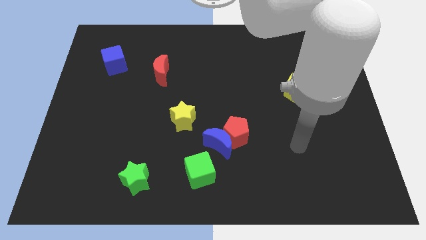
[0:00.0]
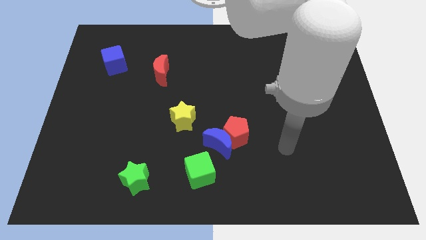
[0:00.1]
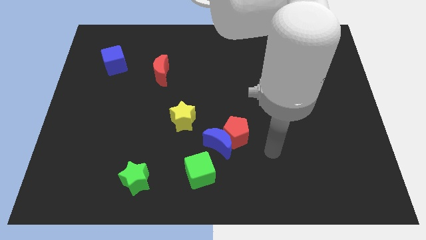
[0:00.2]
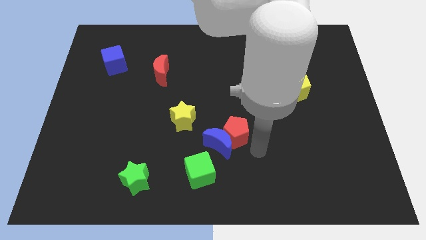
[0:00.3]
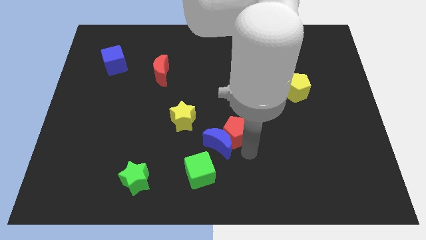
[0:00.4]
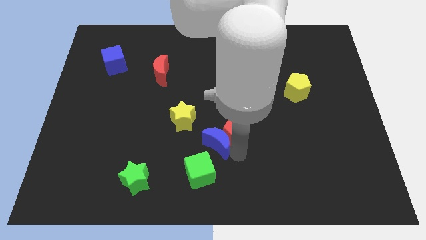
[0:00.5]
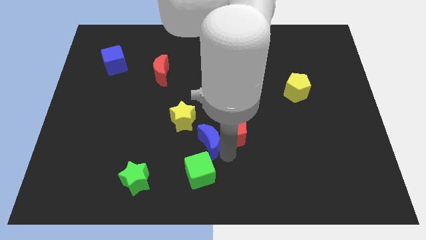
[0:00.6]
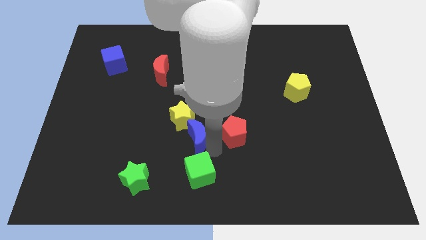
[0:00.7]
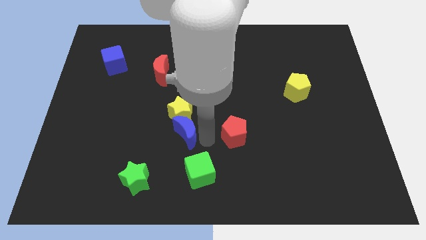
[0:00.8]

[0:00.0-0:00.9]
move the red pentagon away from the blue moon

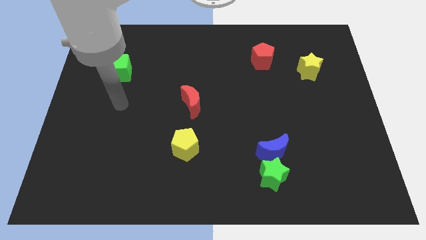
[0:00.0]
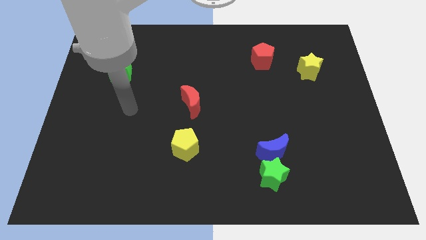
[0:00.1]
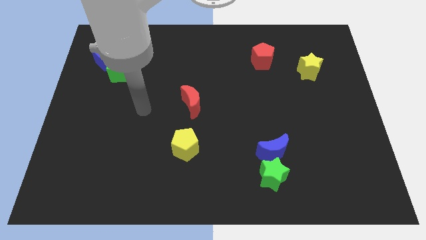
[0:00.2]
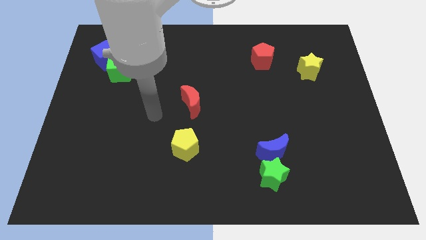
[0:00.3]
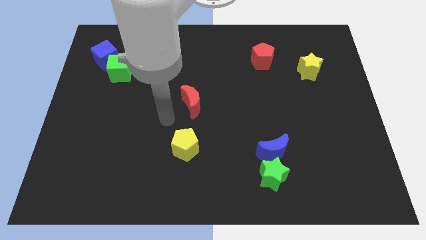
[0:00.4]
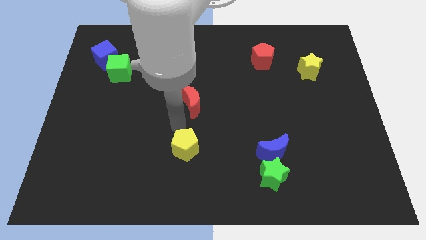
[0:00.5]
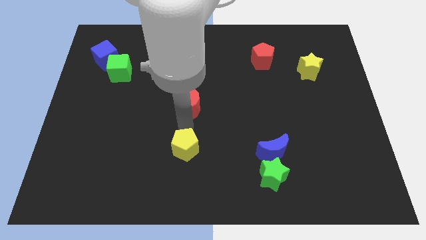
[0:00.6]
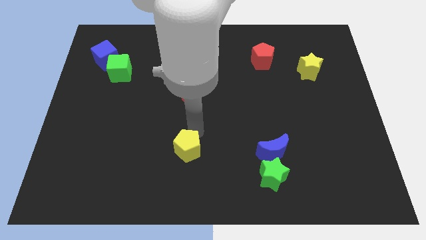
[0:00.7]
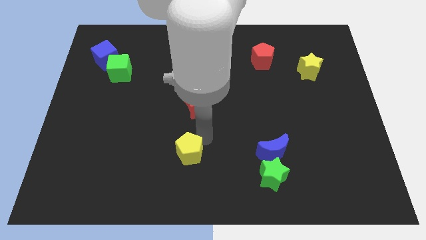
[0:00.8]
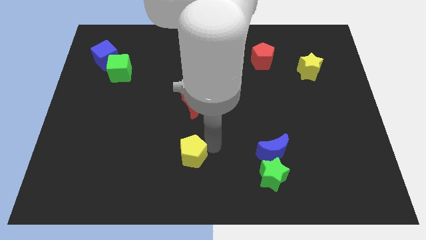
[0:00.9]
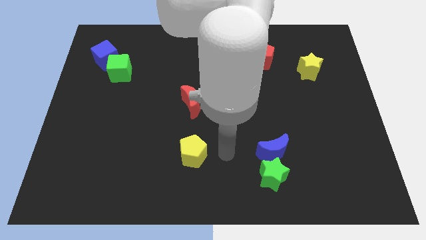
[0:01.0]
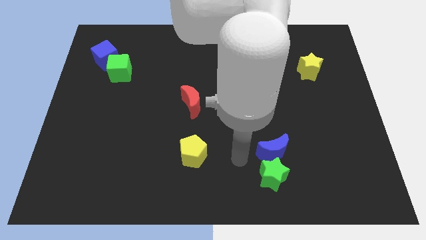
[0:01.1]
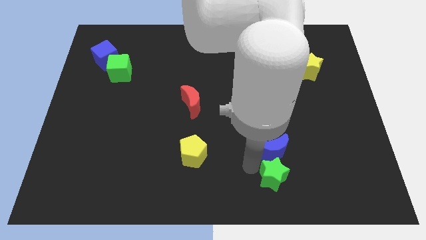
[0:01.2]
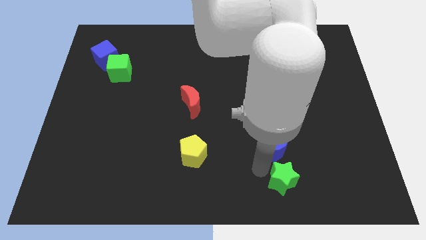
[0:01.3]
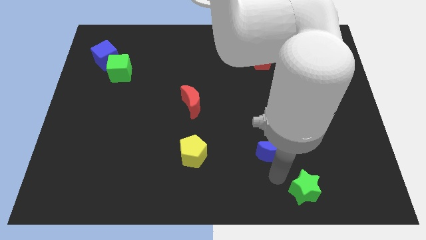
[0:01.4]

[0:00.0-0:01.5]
move the blue moon away from the green star

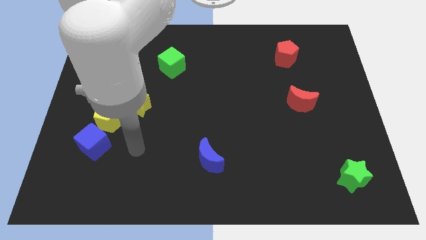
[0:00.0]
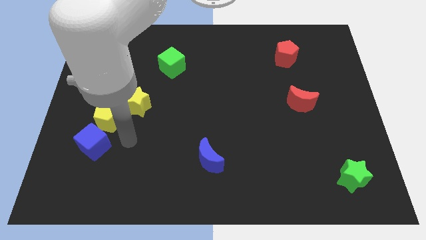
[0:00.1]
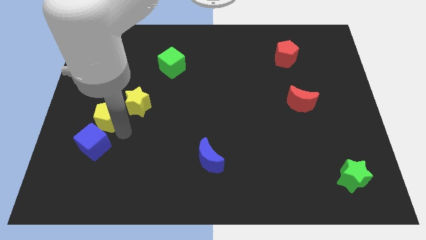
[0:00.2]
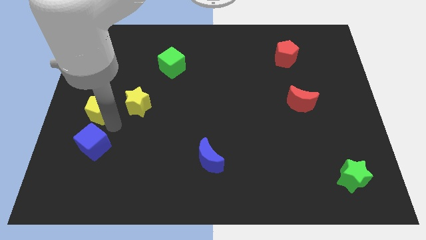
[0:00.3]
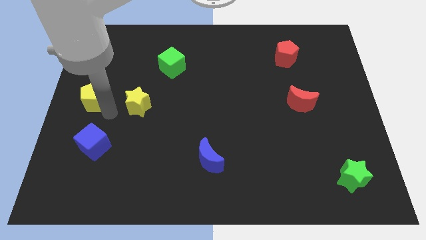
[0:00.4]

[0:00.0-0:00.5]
move the yellow star away from the yellow pentagon

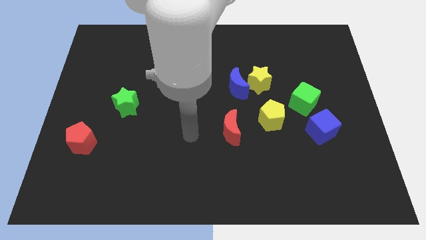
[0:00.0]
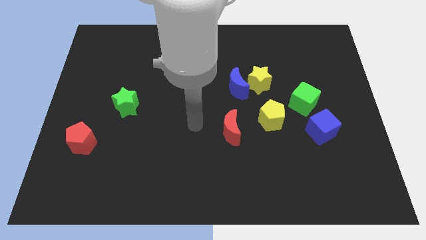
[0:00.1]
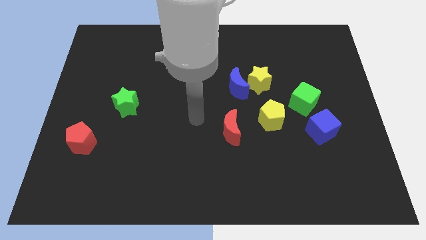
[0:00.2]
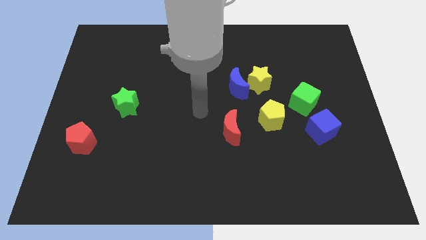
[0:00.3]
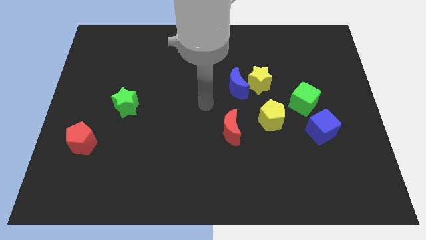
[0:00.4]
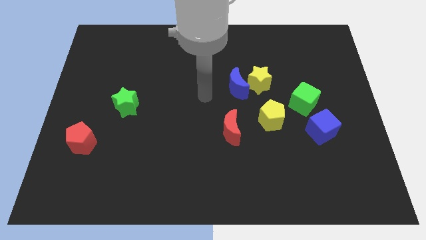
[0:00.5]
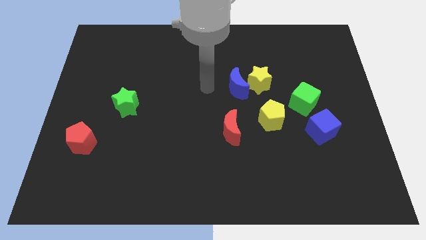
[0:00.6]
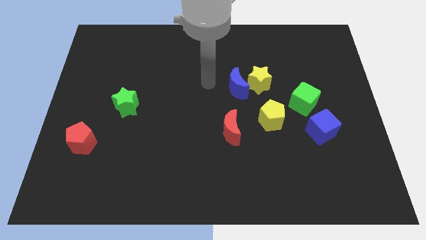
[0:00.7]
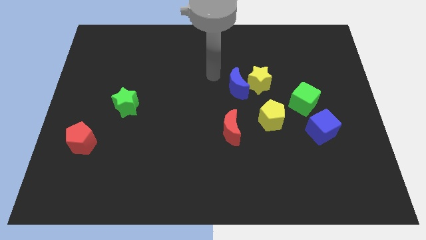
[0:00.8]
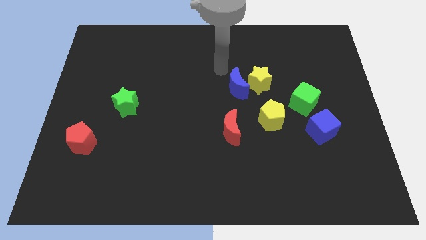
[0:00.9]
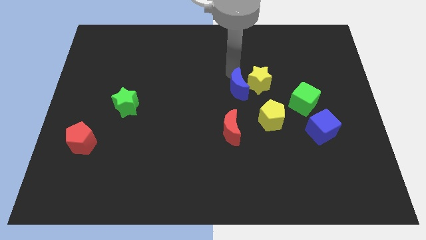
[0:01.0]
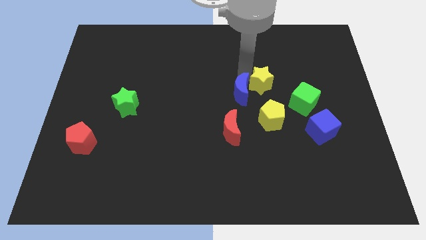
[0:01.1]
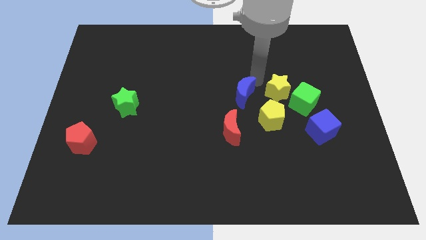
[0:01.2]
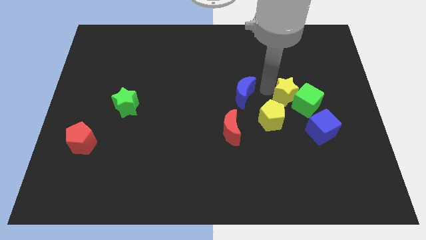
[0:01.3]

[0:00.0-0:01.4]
separate the blue moon from the yellow star

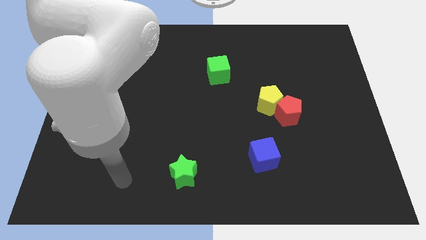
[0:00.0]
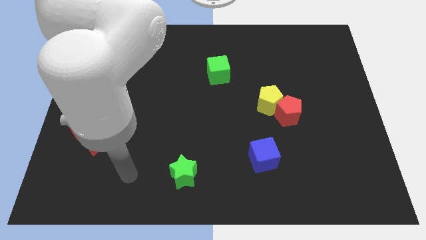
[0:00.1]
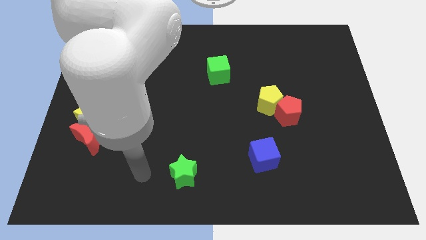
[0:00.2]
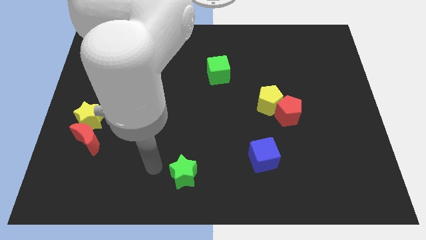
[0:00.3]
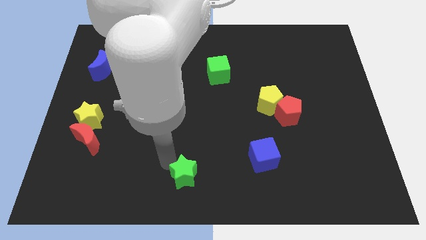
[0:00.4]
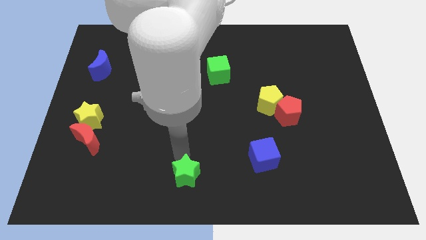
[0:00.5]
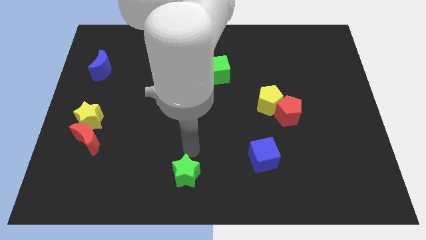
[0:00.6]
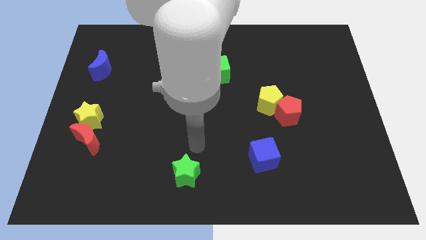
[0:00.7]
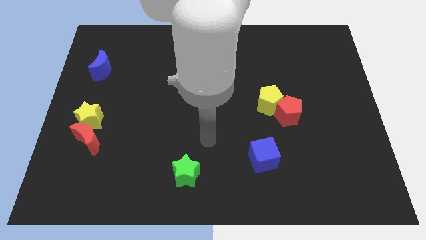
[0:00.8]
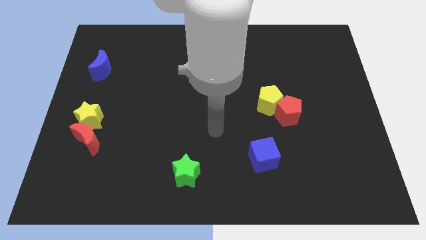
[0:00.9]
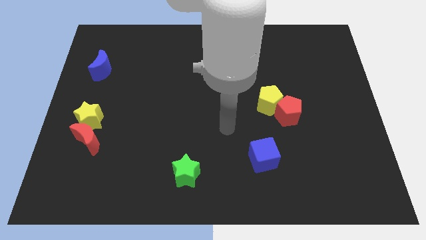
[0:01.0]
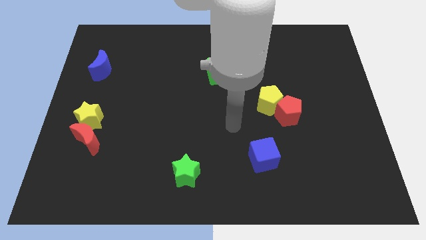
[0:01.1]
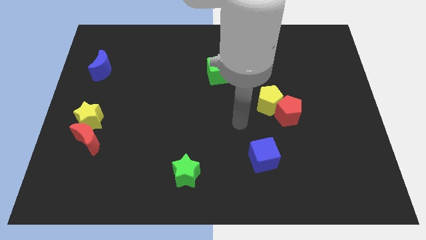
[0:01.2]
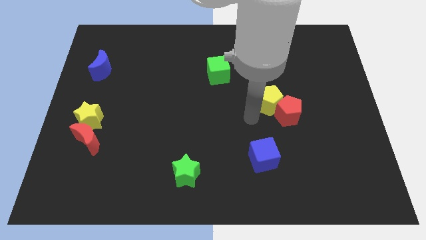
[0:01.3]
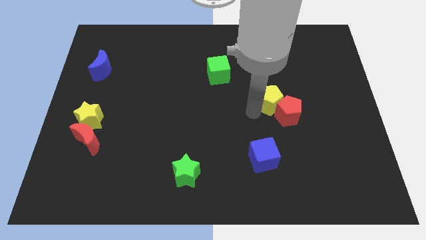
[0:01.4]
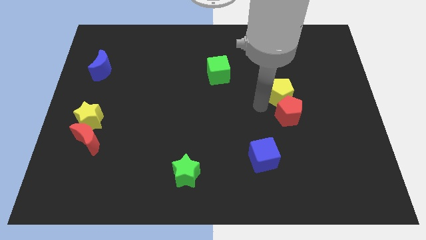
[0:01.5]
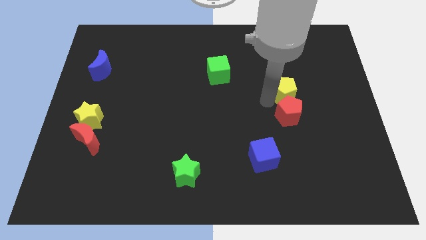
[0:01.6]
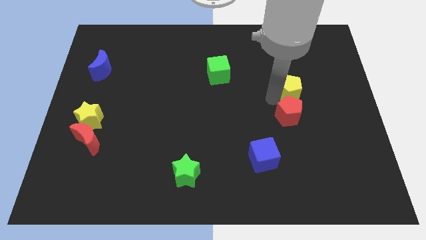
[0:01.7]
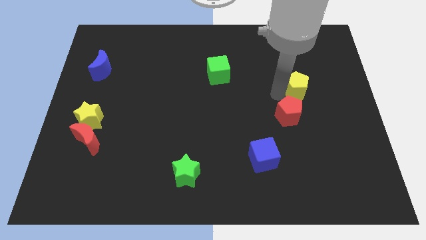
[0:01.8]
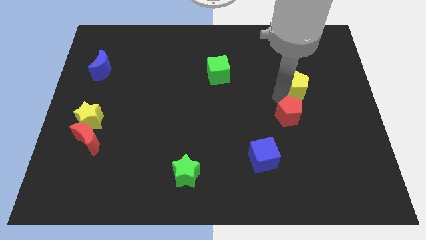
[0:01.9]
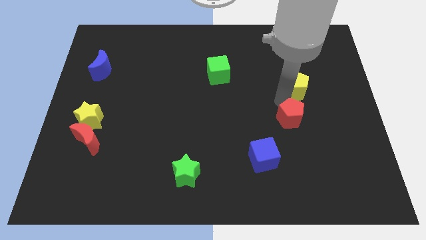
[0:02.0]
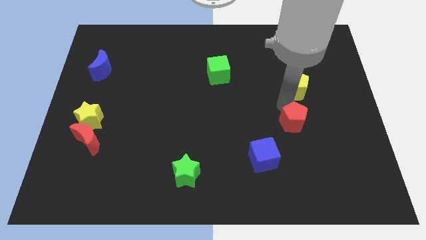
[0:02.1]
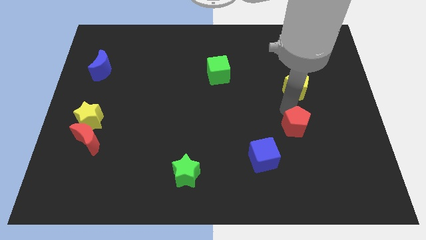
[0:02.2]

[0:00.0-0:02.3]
separate the red pentagon from the yellow pentagon

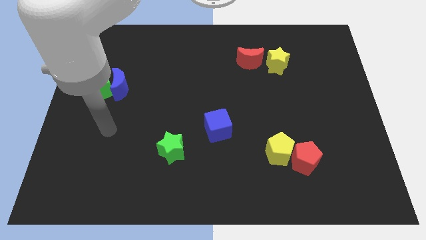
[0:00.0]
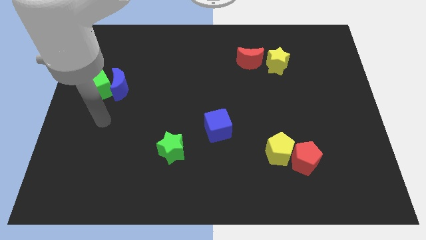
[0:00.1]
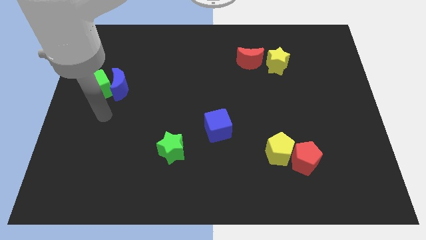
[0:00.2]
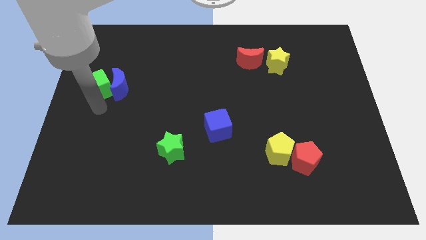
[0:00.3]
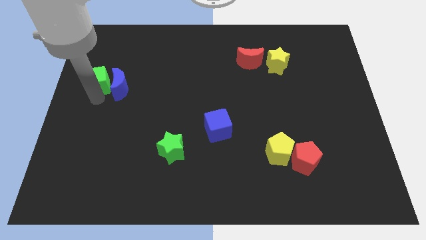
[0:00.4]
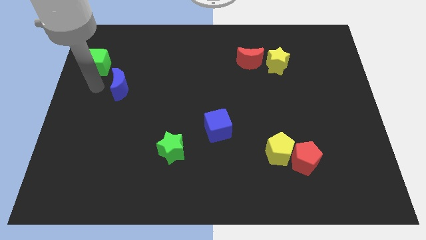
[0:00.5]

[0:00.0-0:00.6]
pull the blue moon apart from the green cube

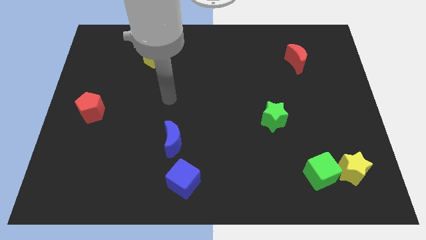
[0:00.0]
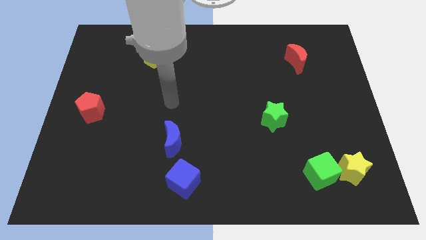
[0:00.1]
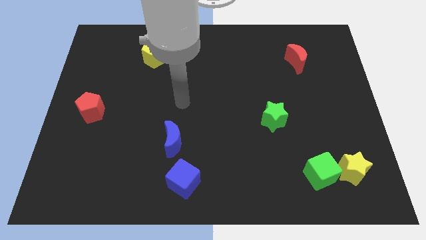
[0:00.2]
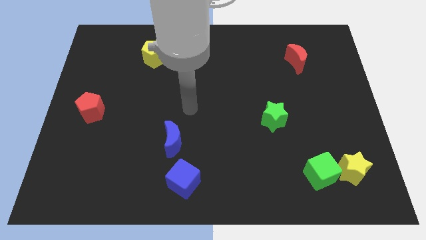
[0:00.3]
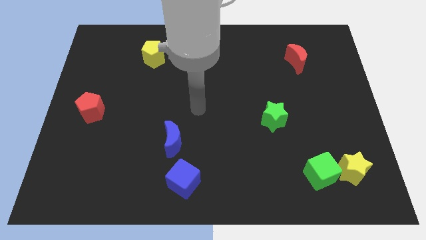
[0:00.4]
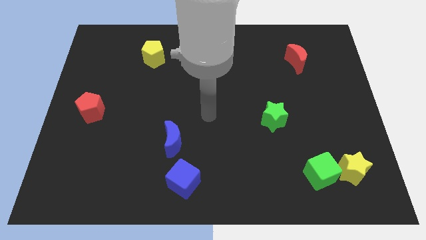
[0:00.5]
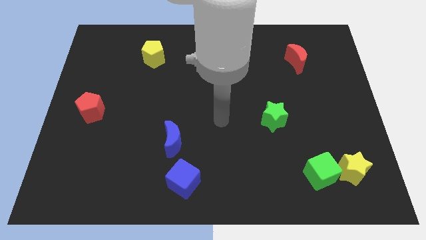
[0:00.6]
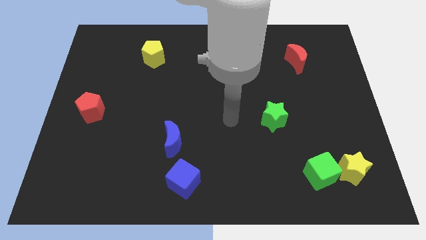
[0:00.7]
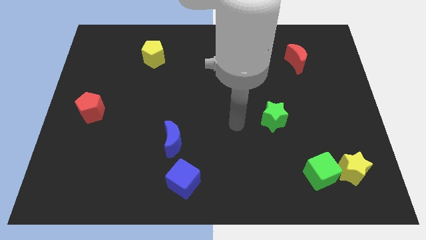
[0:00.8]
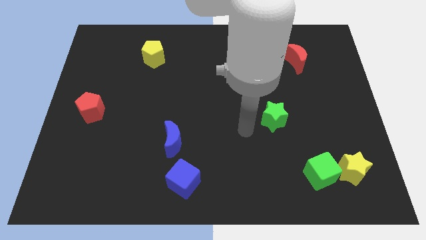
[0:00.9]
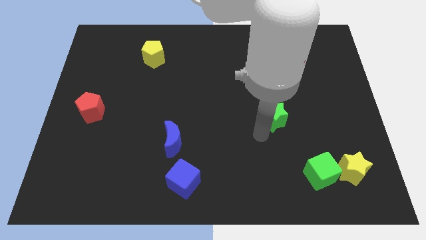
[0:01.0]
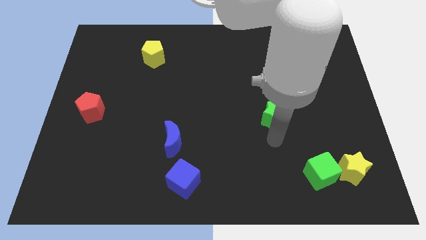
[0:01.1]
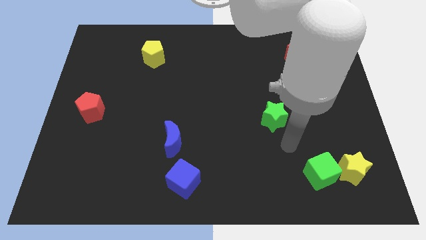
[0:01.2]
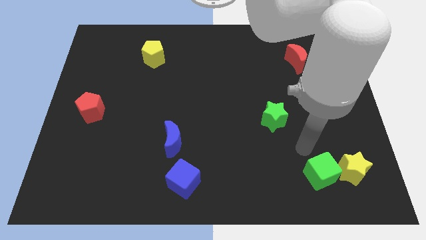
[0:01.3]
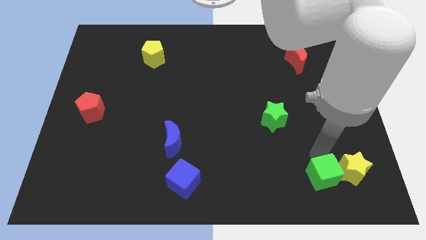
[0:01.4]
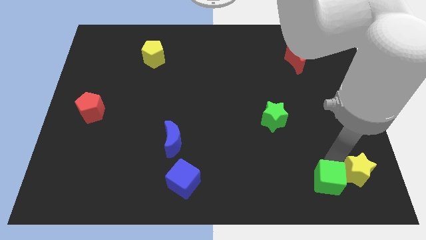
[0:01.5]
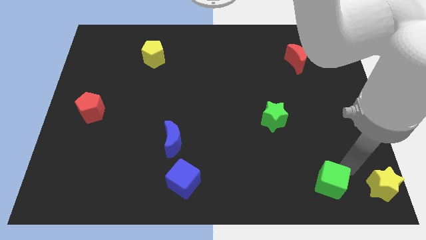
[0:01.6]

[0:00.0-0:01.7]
move the green cube away from the yellow star

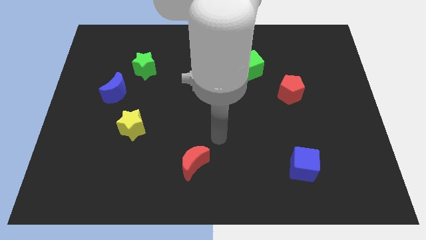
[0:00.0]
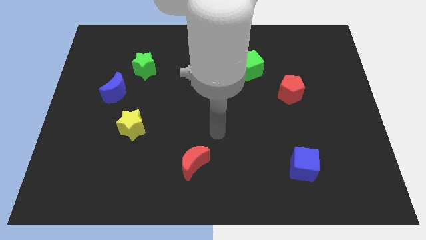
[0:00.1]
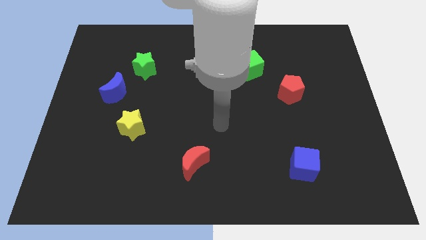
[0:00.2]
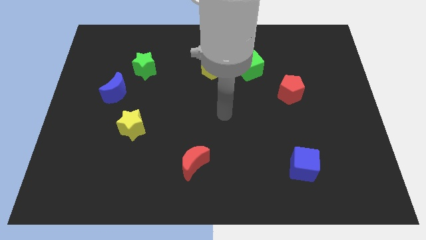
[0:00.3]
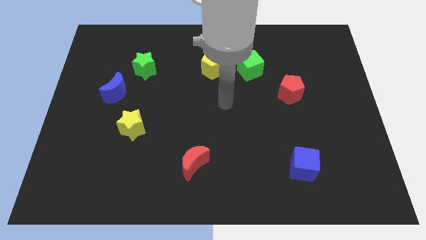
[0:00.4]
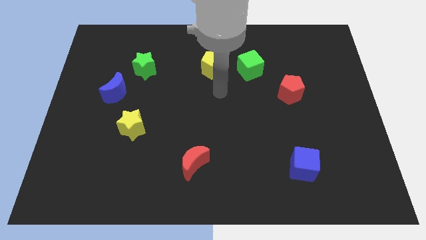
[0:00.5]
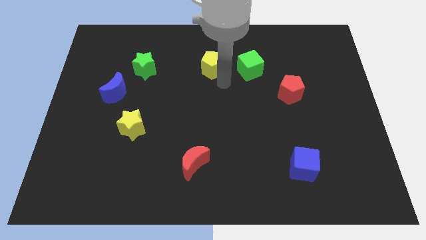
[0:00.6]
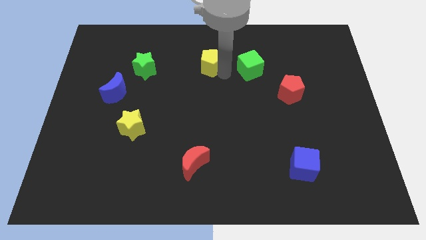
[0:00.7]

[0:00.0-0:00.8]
move the green cube away from the yellow pentagon
